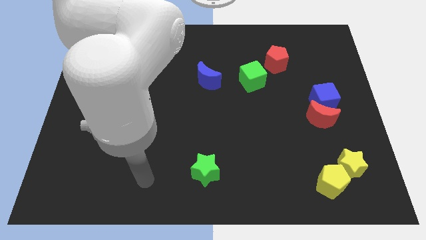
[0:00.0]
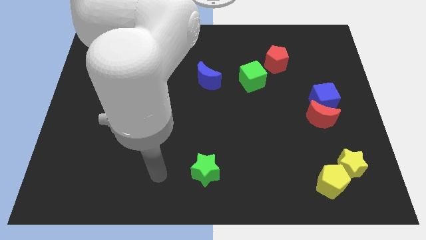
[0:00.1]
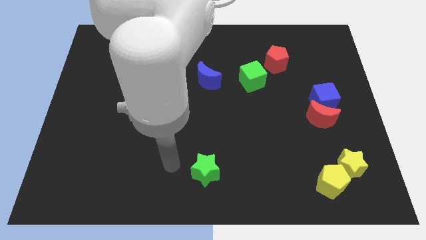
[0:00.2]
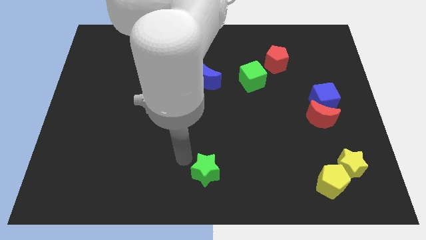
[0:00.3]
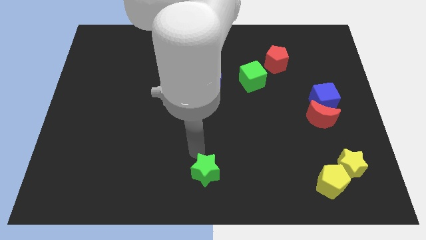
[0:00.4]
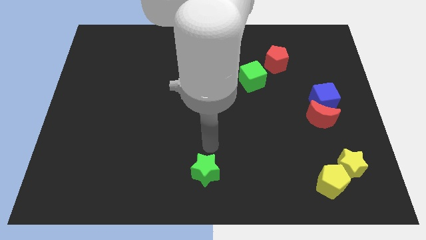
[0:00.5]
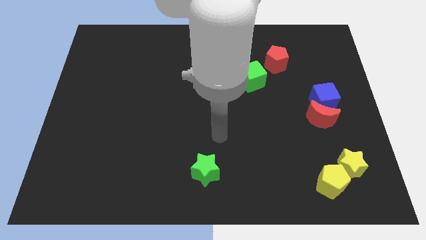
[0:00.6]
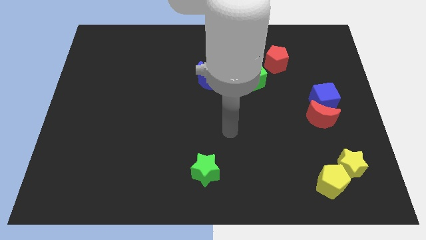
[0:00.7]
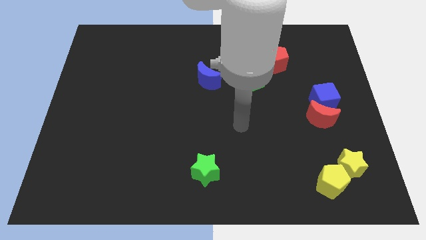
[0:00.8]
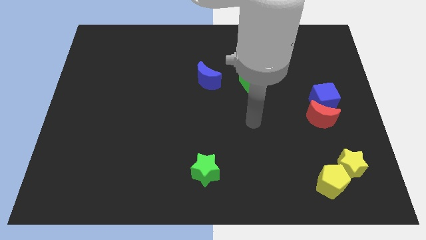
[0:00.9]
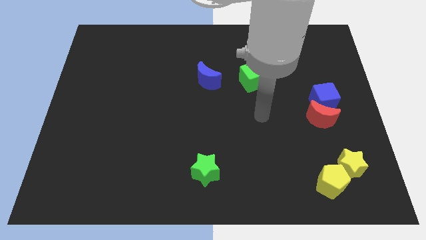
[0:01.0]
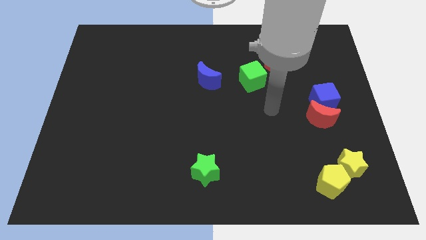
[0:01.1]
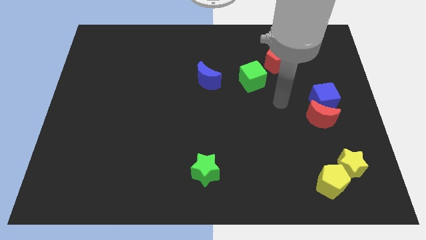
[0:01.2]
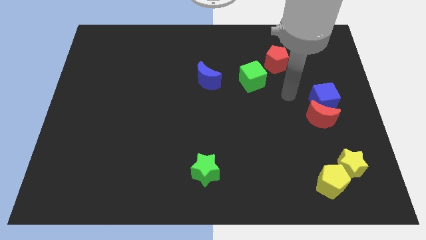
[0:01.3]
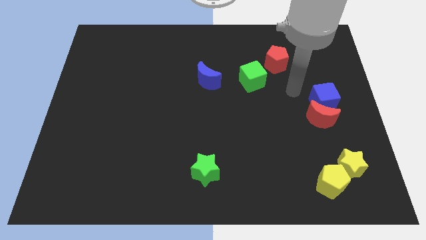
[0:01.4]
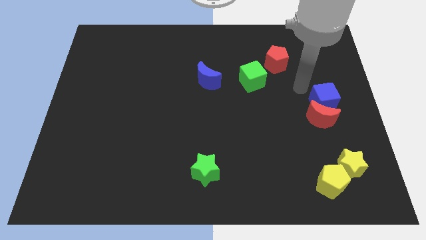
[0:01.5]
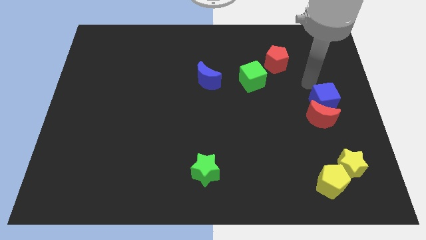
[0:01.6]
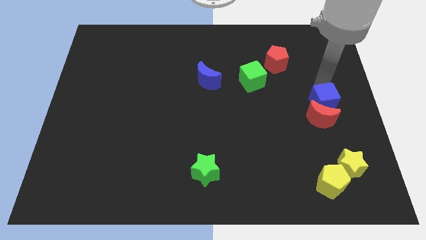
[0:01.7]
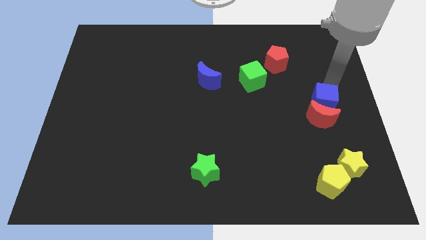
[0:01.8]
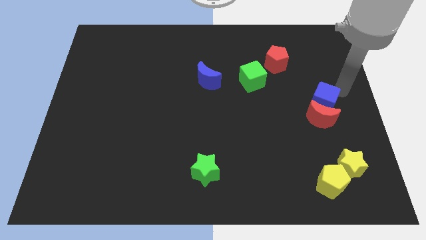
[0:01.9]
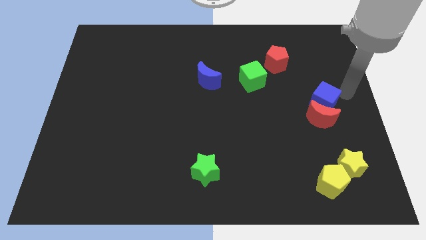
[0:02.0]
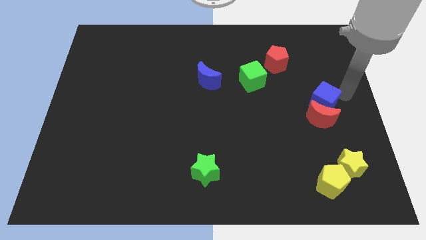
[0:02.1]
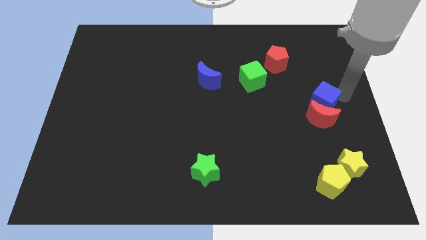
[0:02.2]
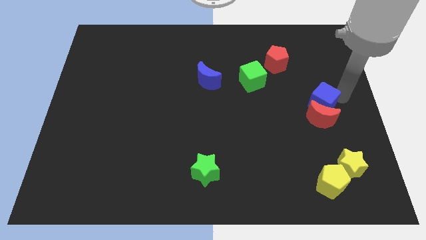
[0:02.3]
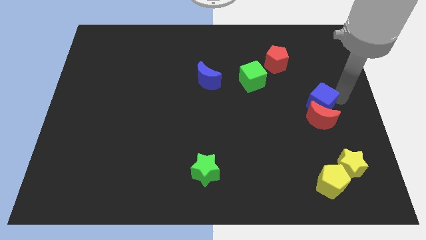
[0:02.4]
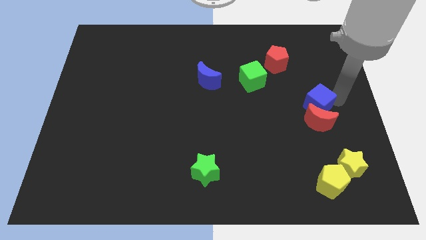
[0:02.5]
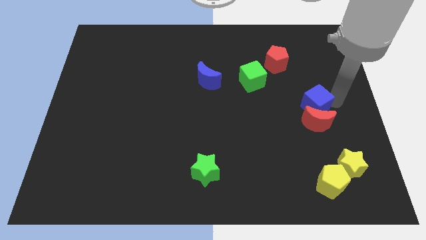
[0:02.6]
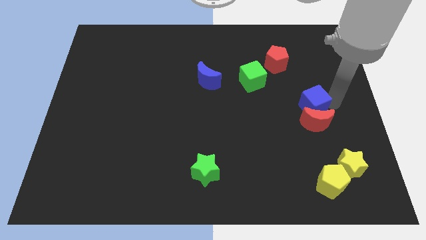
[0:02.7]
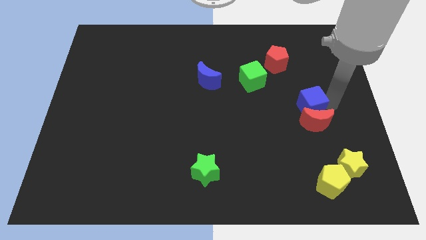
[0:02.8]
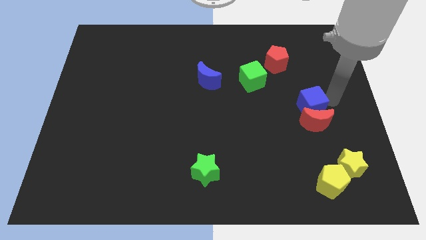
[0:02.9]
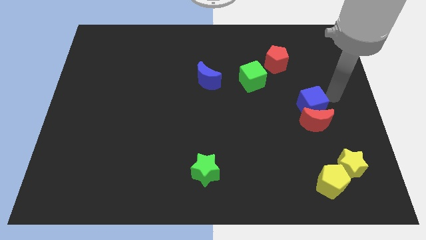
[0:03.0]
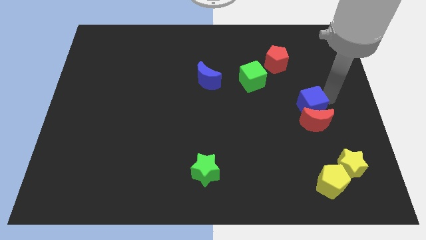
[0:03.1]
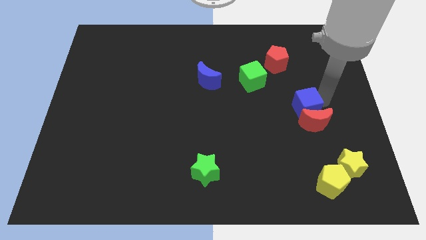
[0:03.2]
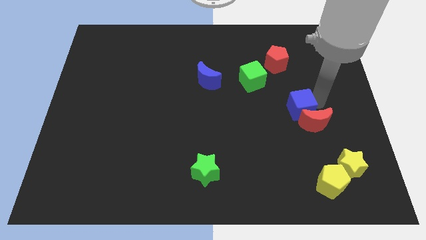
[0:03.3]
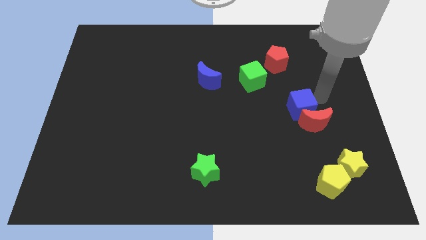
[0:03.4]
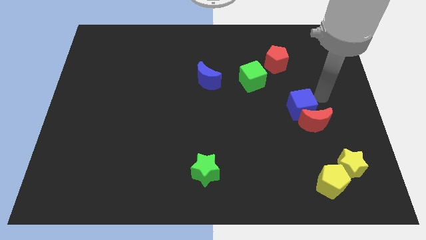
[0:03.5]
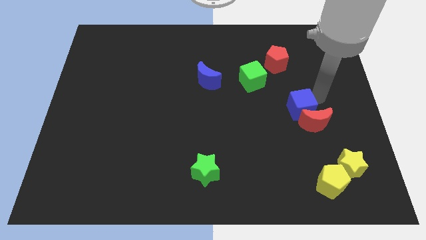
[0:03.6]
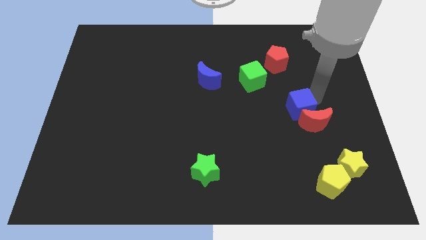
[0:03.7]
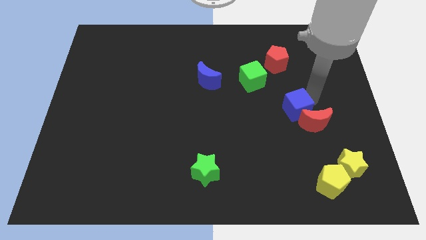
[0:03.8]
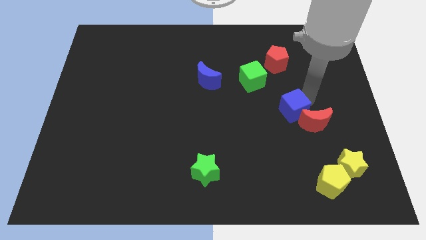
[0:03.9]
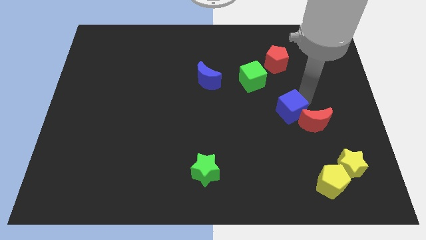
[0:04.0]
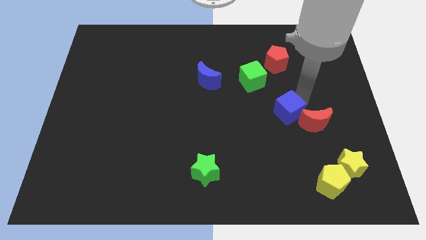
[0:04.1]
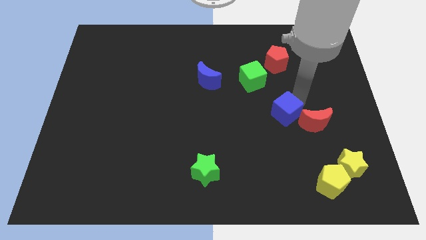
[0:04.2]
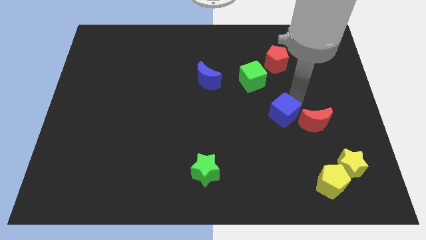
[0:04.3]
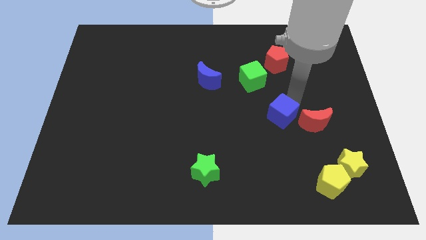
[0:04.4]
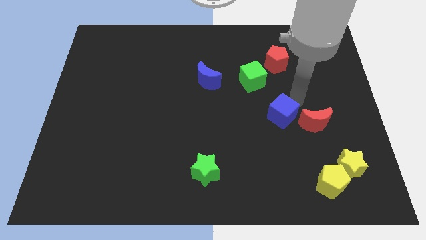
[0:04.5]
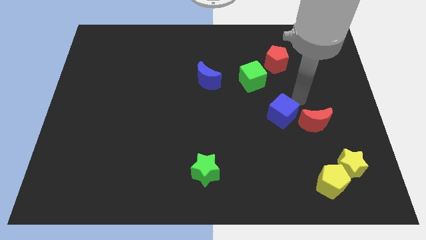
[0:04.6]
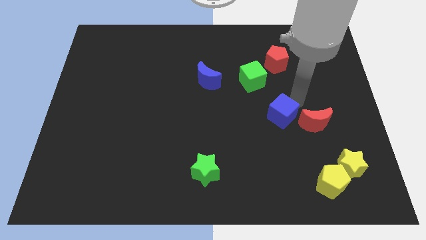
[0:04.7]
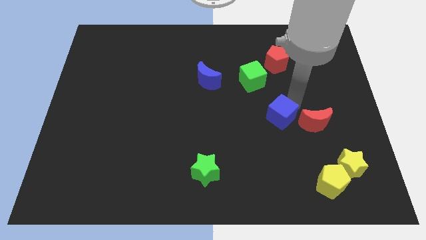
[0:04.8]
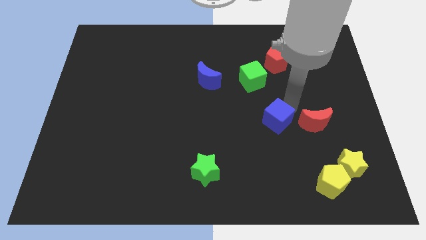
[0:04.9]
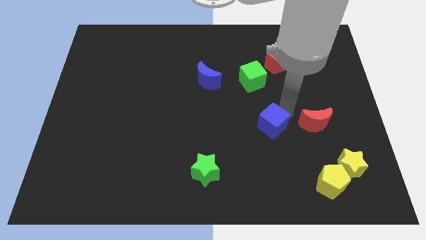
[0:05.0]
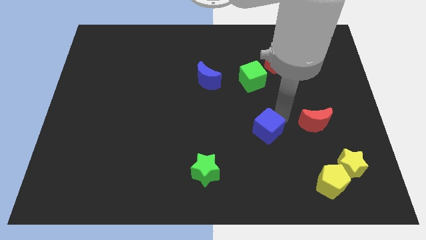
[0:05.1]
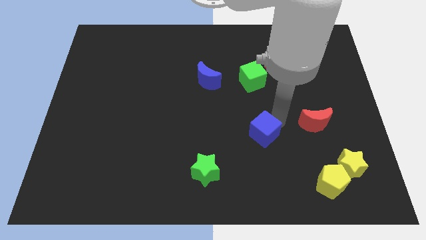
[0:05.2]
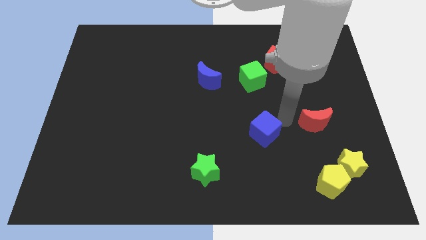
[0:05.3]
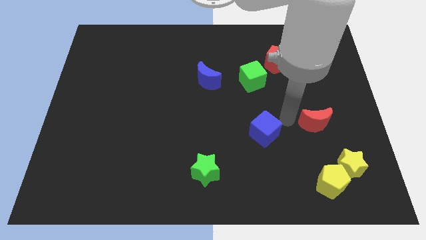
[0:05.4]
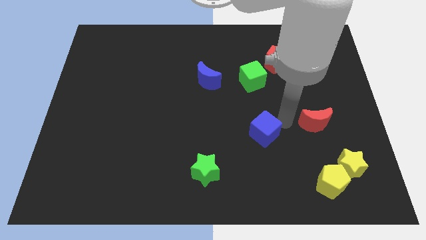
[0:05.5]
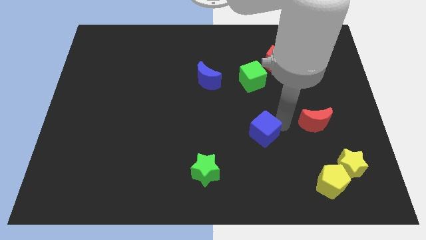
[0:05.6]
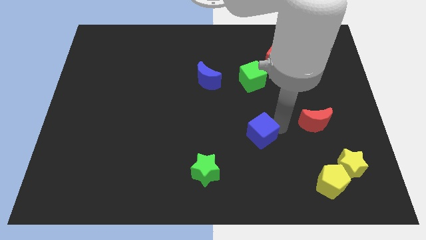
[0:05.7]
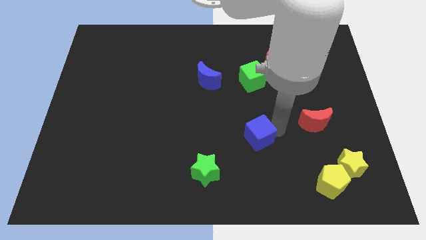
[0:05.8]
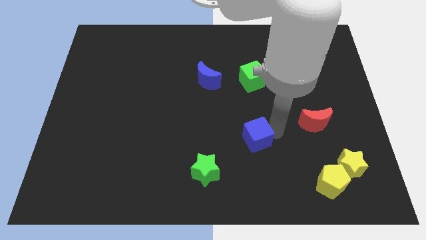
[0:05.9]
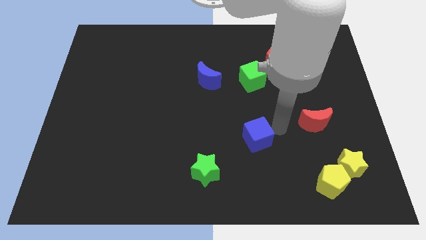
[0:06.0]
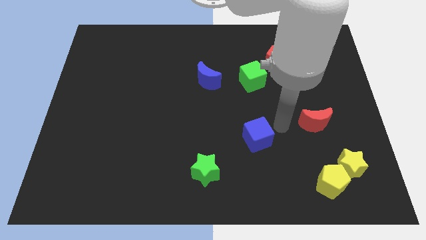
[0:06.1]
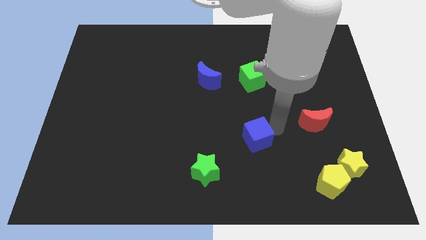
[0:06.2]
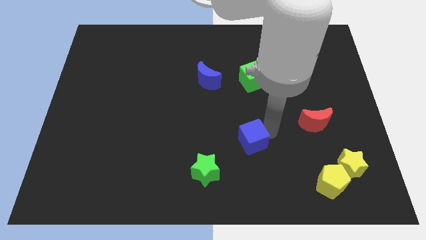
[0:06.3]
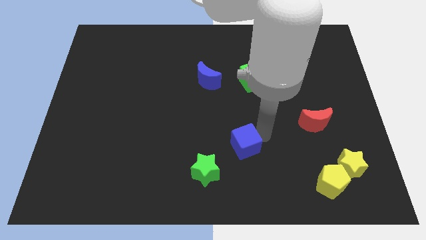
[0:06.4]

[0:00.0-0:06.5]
slide the blue cube to the top right side of the green star

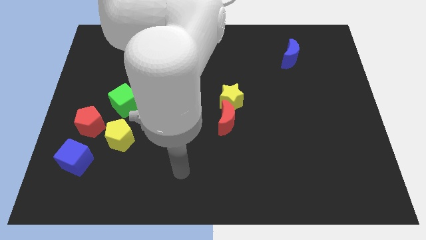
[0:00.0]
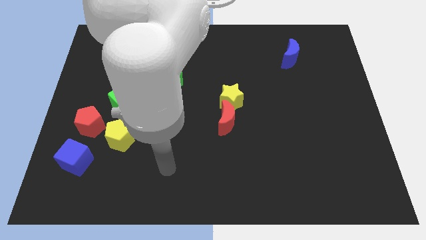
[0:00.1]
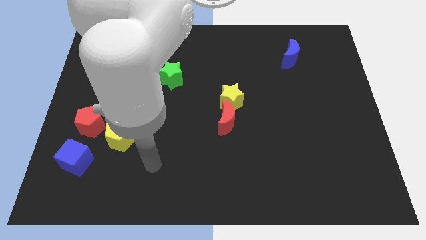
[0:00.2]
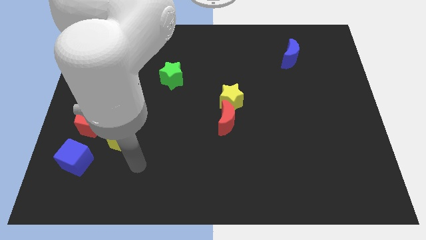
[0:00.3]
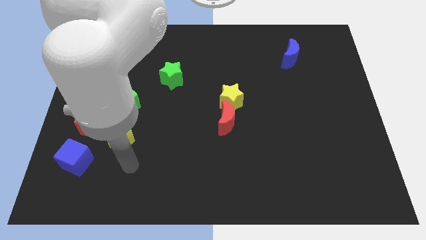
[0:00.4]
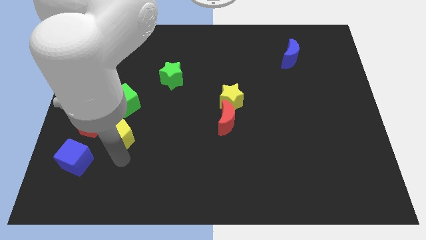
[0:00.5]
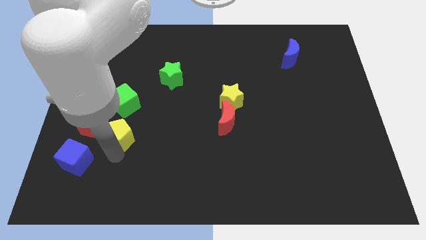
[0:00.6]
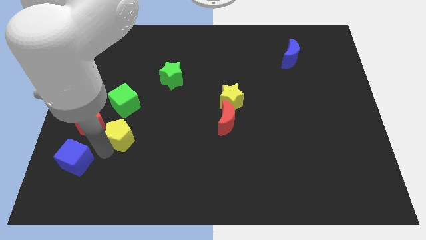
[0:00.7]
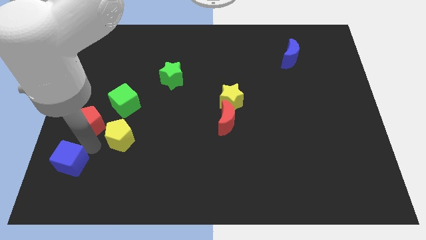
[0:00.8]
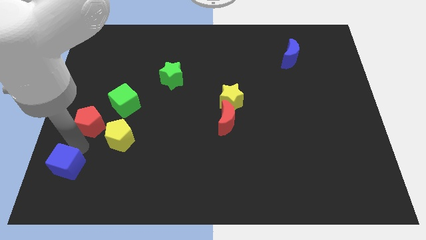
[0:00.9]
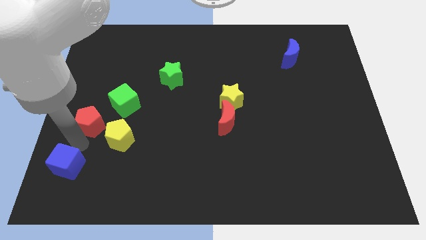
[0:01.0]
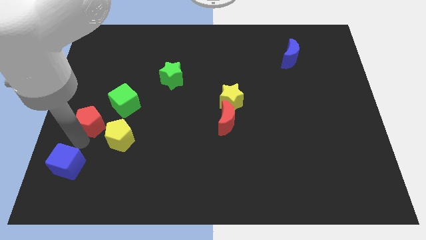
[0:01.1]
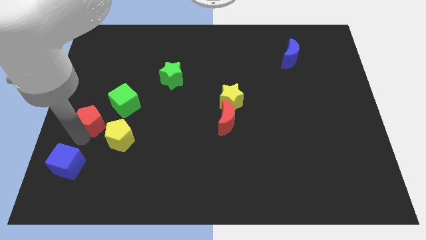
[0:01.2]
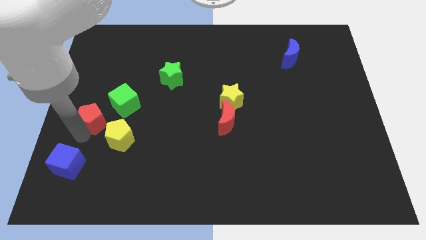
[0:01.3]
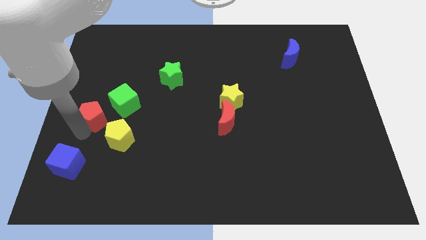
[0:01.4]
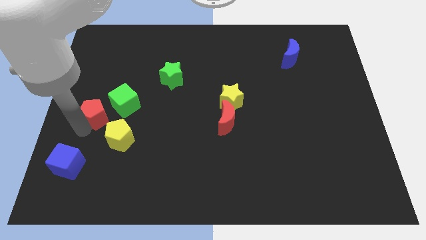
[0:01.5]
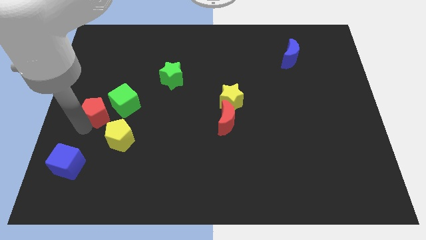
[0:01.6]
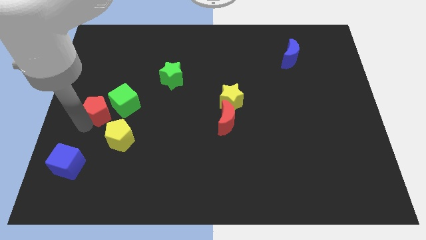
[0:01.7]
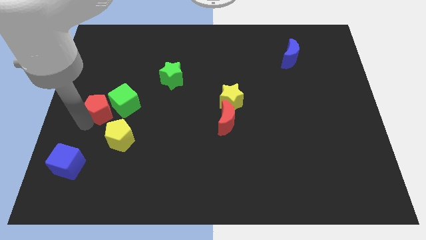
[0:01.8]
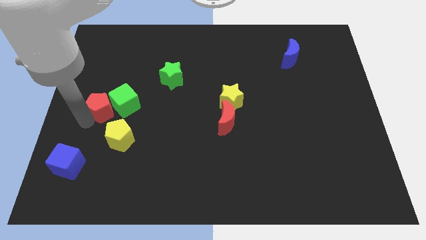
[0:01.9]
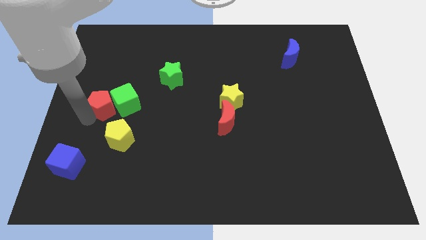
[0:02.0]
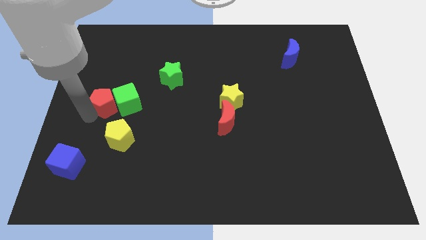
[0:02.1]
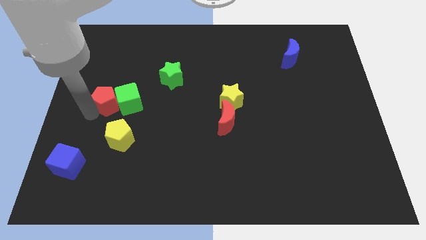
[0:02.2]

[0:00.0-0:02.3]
push the red pentagon to the top of the yellow pentagon
